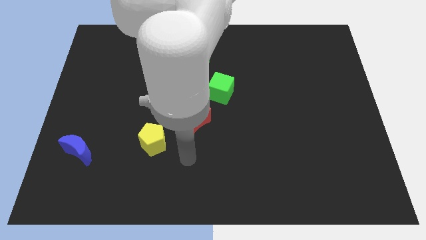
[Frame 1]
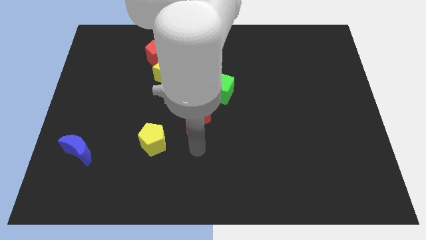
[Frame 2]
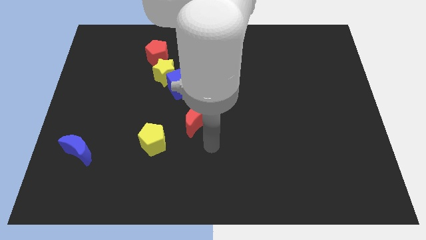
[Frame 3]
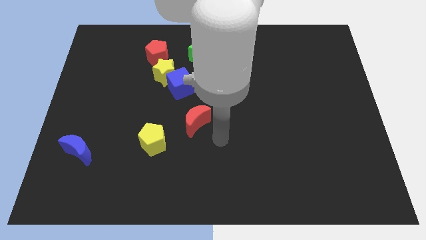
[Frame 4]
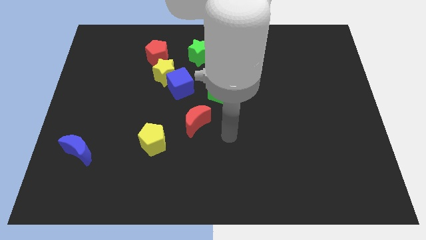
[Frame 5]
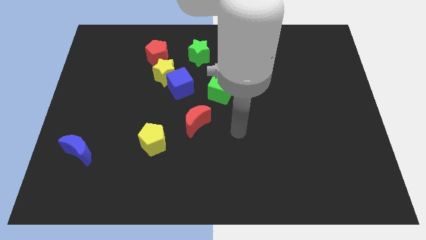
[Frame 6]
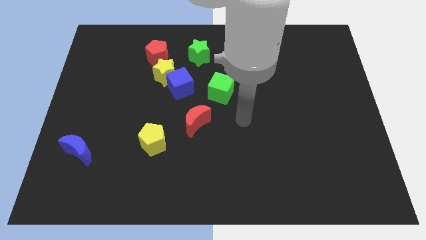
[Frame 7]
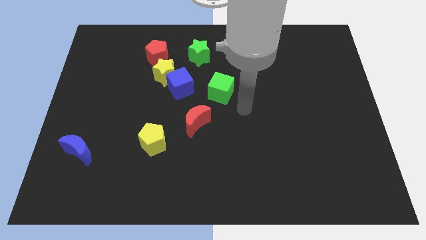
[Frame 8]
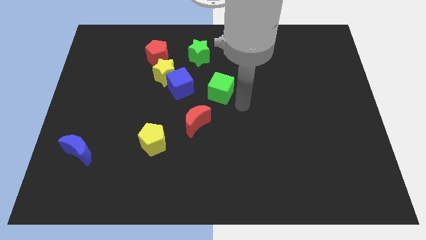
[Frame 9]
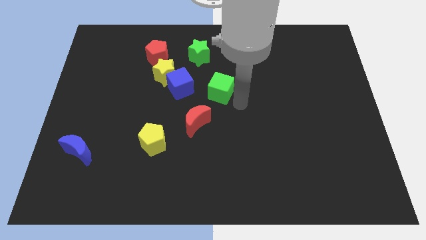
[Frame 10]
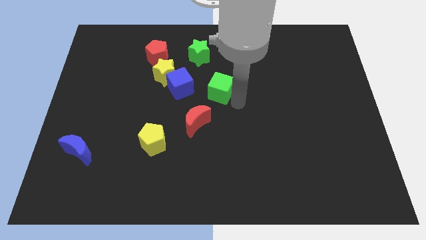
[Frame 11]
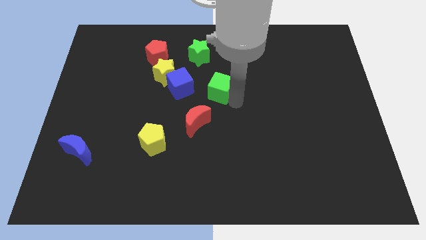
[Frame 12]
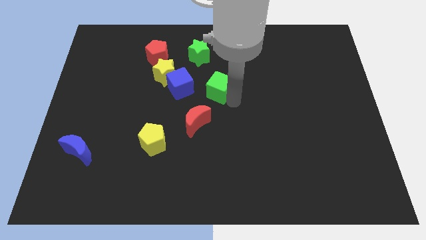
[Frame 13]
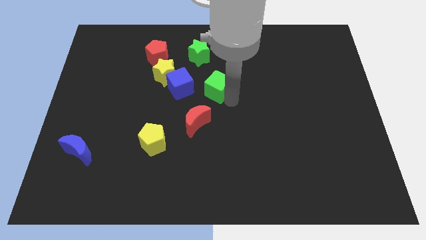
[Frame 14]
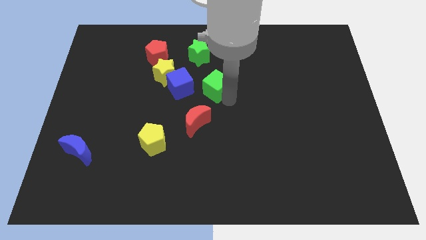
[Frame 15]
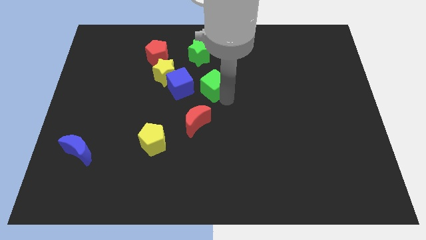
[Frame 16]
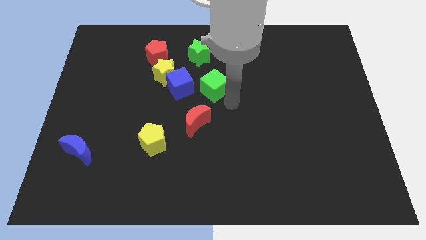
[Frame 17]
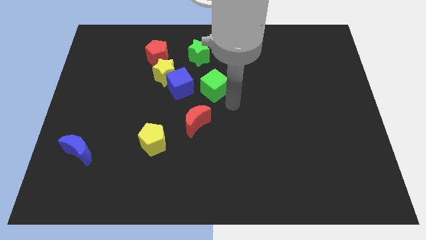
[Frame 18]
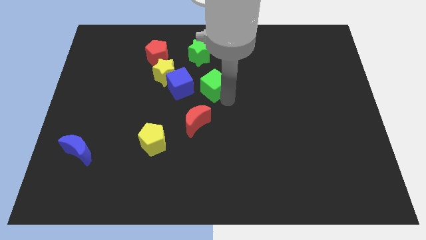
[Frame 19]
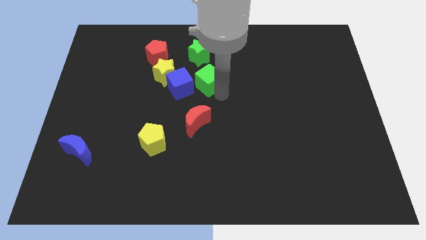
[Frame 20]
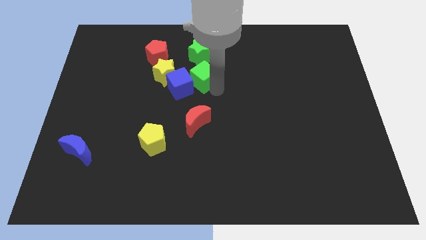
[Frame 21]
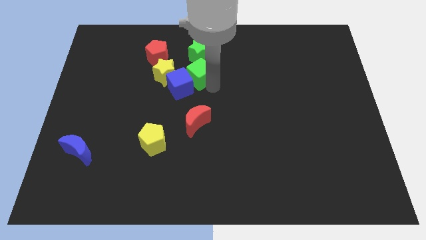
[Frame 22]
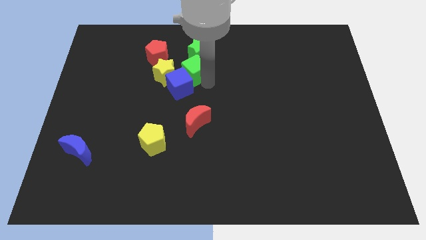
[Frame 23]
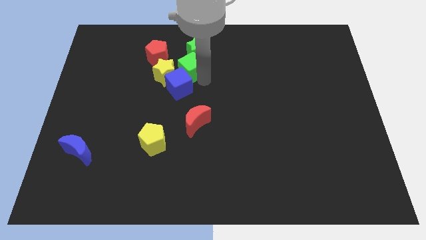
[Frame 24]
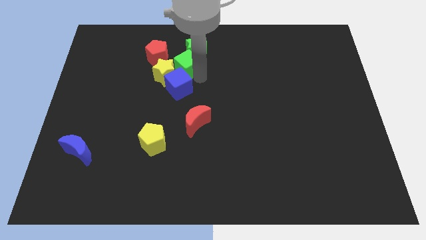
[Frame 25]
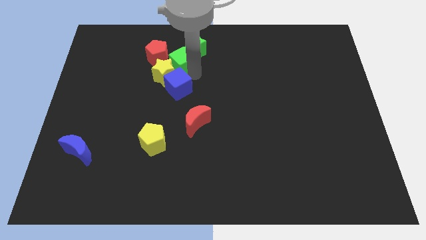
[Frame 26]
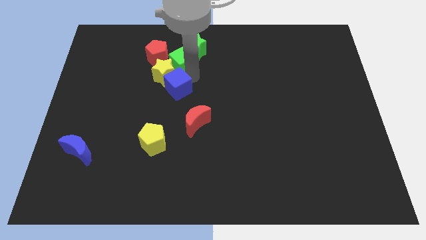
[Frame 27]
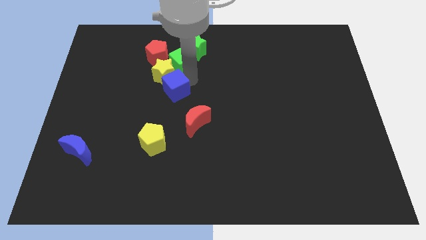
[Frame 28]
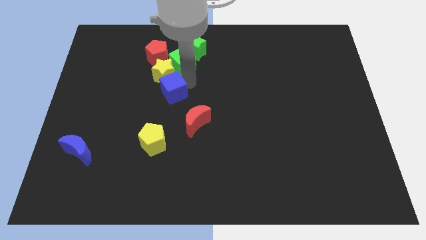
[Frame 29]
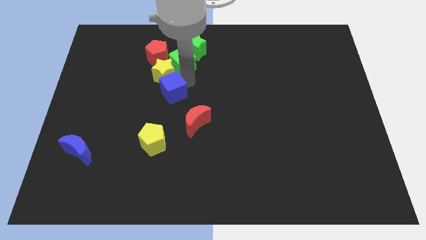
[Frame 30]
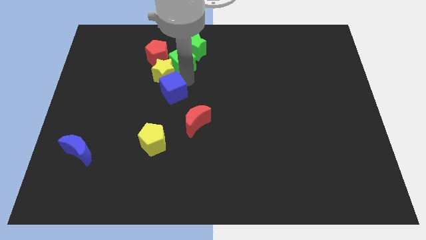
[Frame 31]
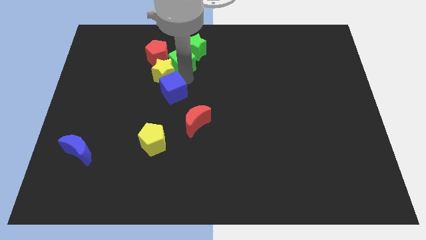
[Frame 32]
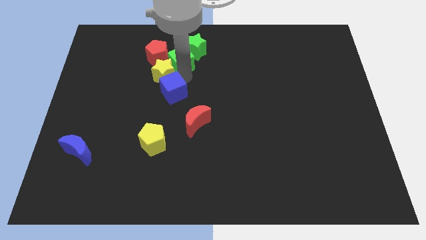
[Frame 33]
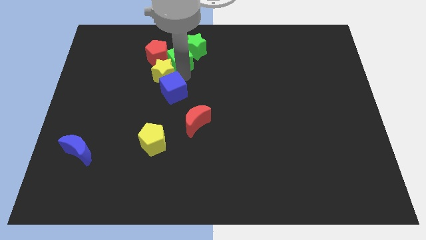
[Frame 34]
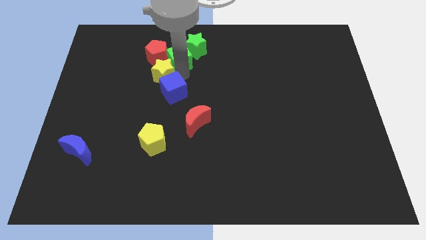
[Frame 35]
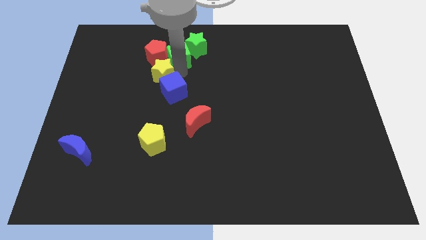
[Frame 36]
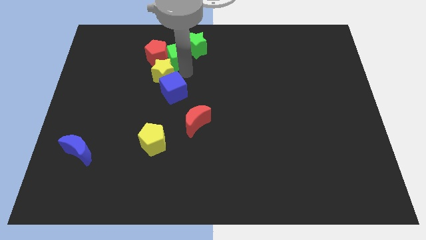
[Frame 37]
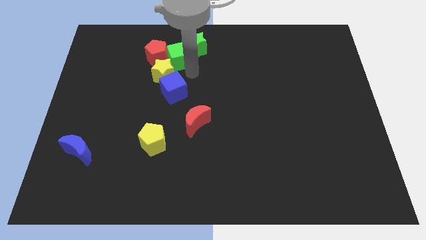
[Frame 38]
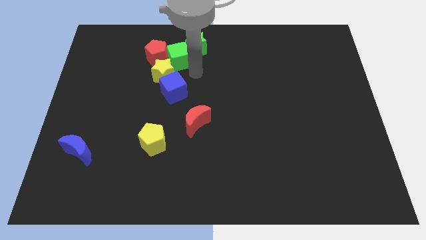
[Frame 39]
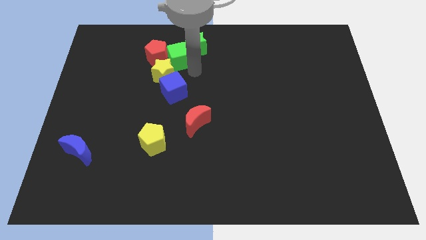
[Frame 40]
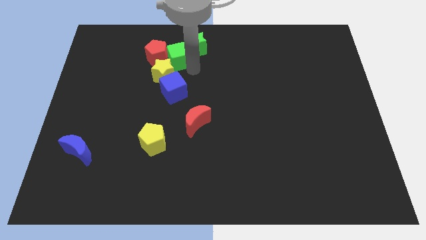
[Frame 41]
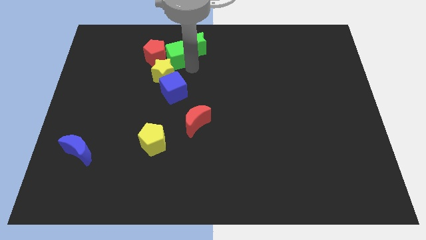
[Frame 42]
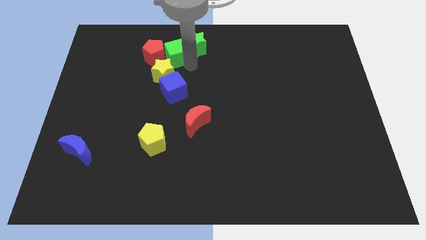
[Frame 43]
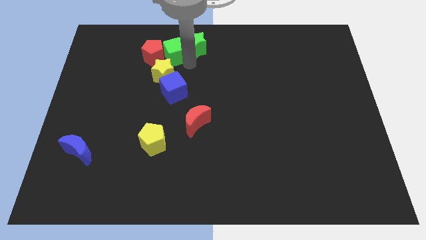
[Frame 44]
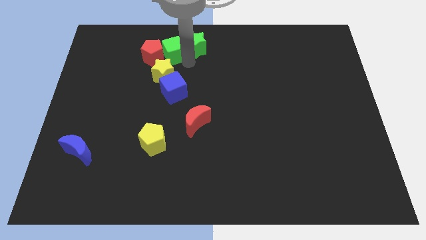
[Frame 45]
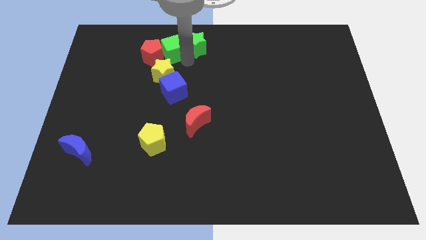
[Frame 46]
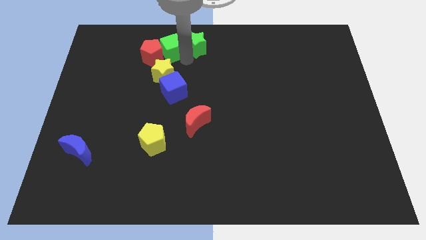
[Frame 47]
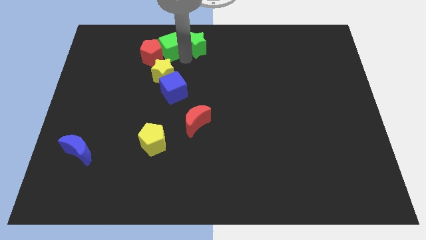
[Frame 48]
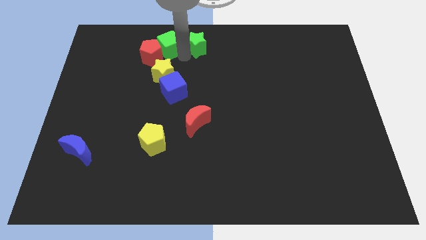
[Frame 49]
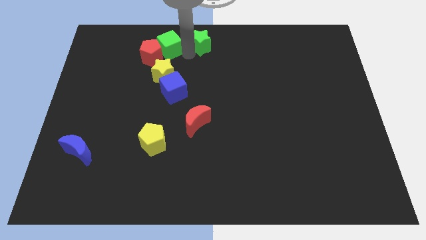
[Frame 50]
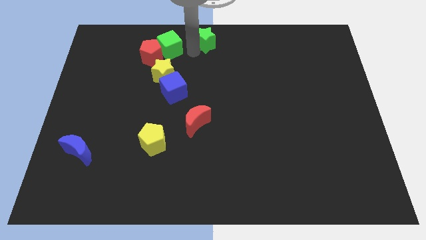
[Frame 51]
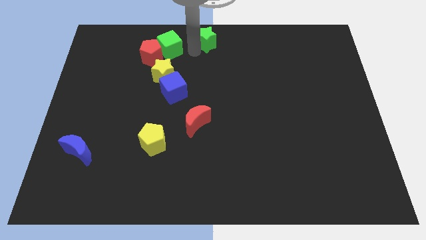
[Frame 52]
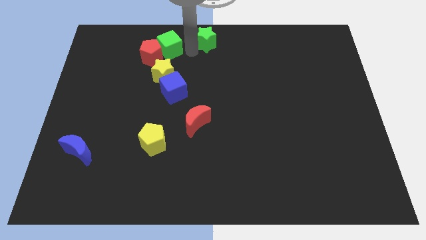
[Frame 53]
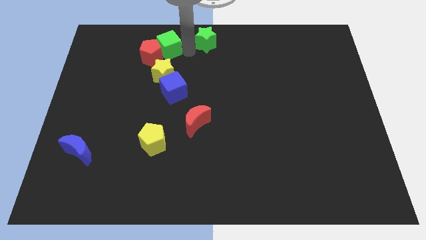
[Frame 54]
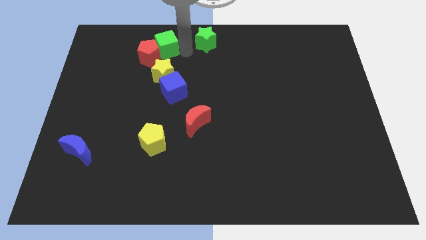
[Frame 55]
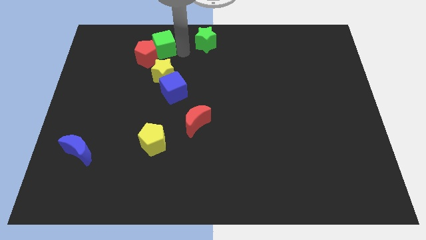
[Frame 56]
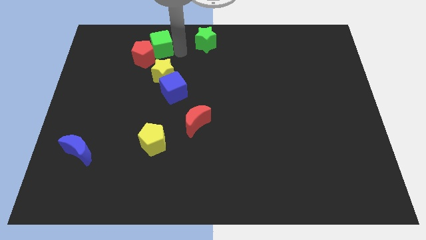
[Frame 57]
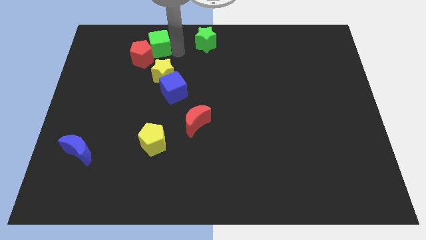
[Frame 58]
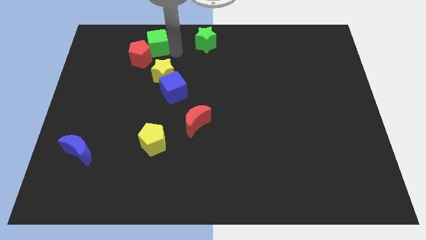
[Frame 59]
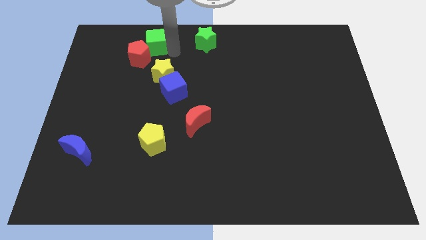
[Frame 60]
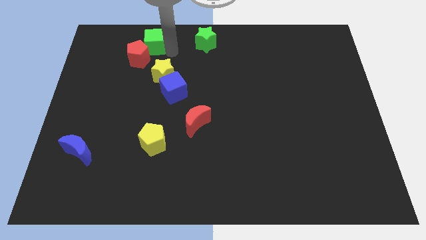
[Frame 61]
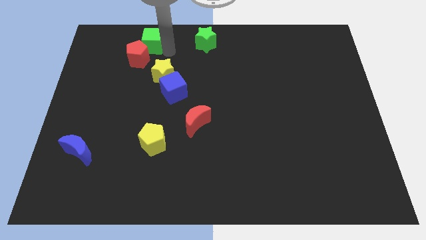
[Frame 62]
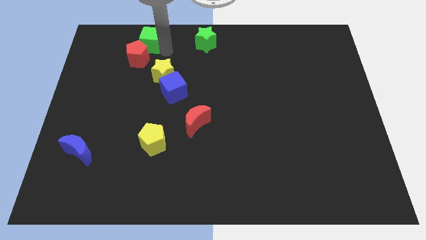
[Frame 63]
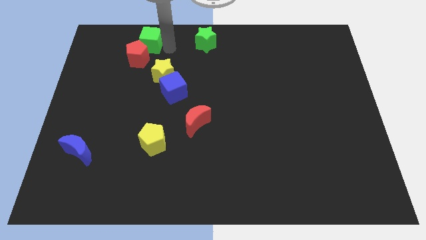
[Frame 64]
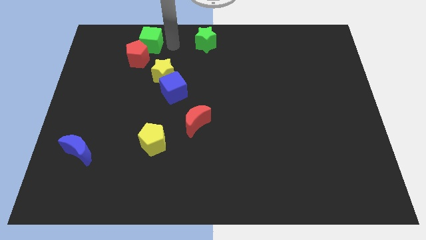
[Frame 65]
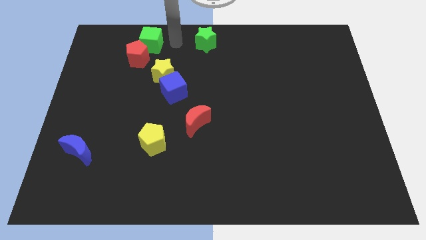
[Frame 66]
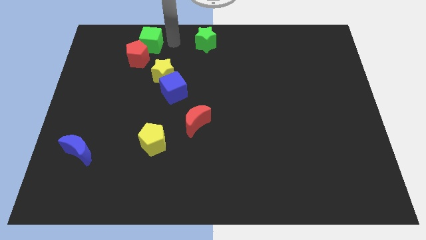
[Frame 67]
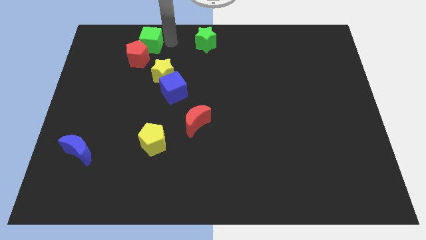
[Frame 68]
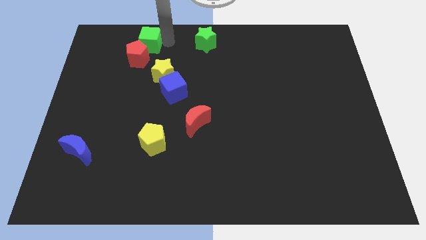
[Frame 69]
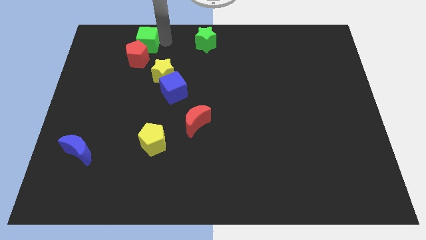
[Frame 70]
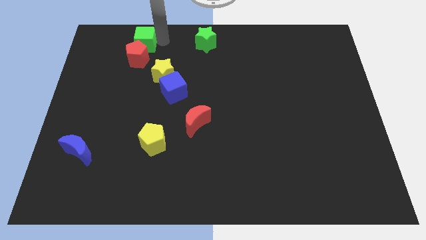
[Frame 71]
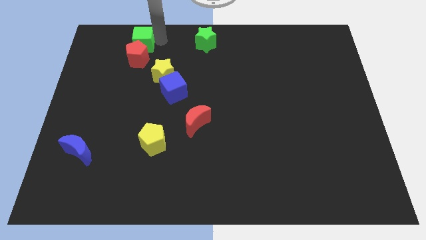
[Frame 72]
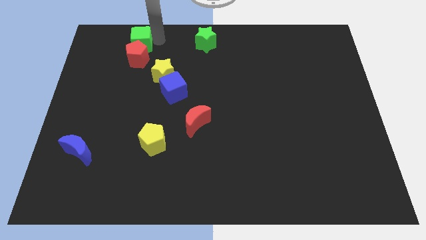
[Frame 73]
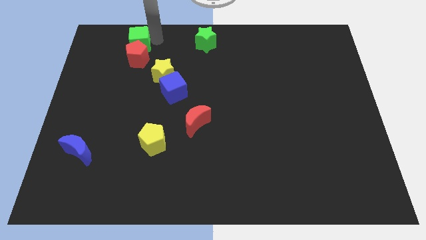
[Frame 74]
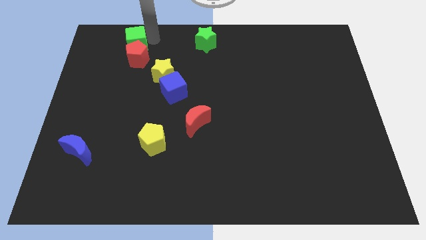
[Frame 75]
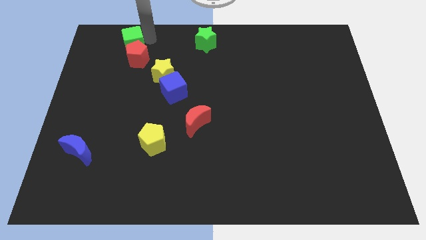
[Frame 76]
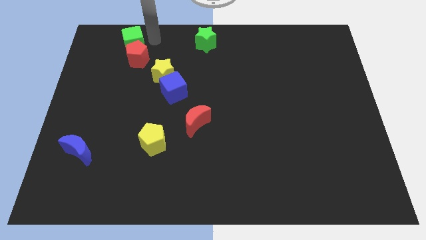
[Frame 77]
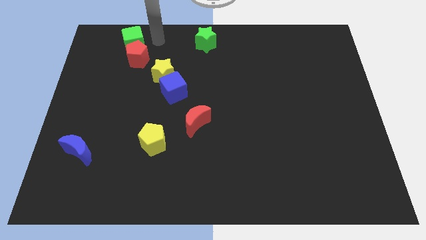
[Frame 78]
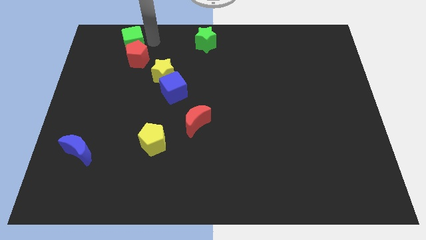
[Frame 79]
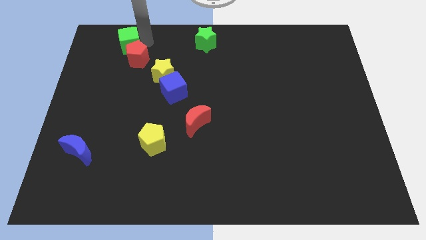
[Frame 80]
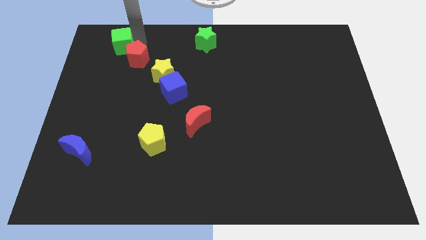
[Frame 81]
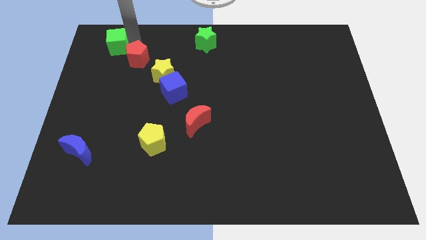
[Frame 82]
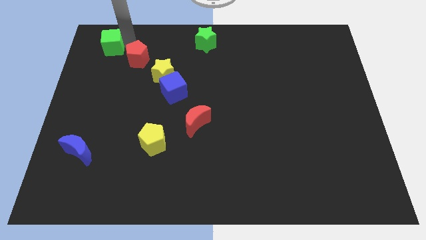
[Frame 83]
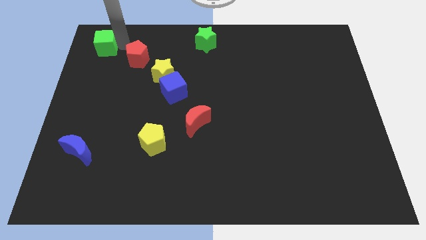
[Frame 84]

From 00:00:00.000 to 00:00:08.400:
put the green cube to the top left corner
